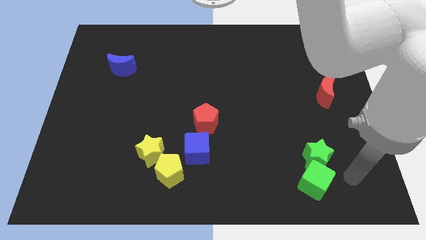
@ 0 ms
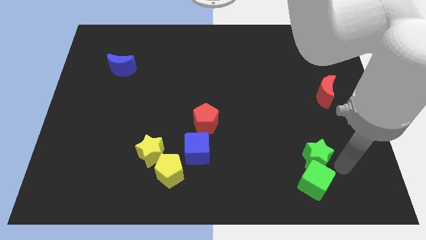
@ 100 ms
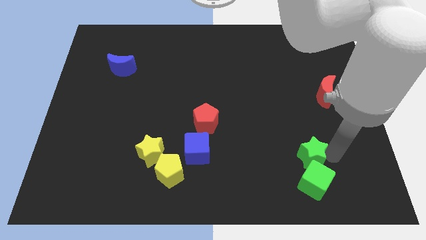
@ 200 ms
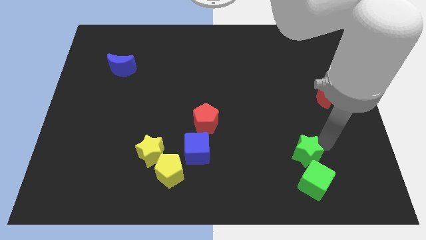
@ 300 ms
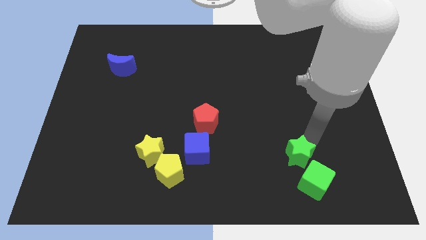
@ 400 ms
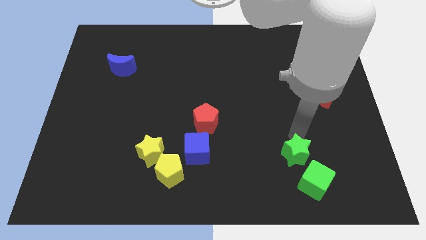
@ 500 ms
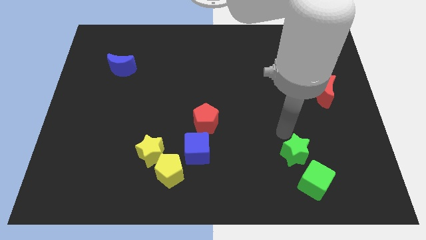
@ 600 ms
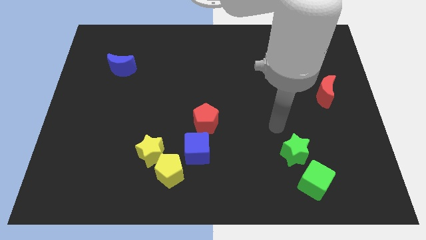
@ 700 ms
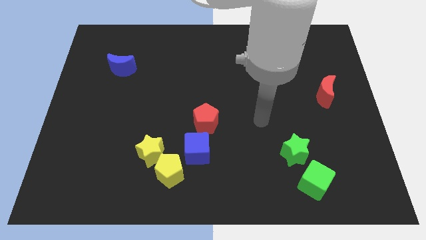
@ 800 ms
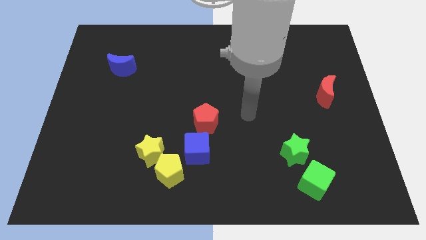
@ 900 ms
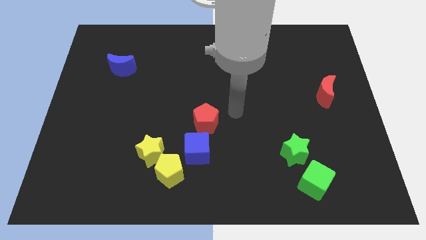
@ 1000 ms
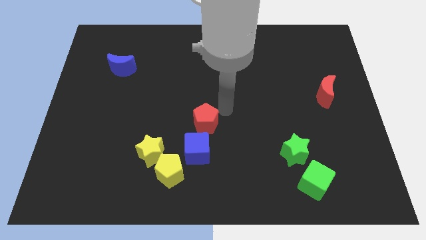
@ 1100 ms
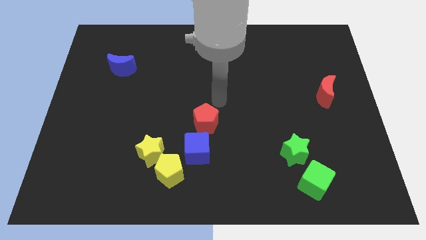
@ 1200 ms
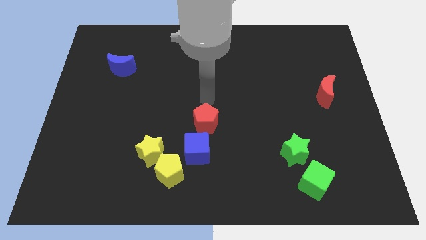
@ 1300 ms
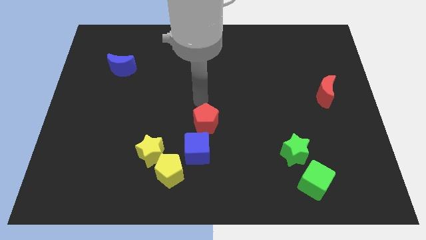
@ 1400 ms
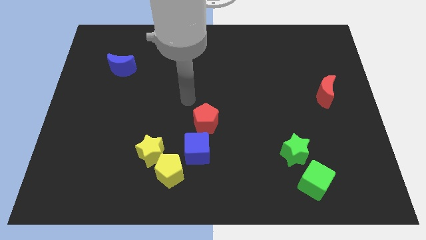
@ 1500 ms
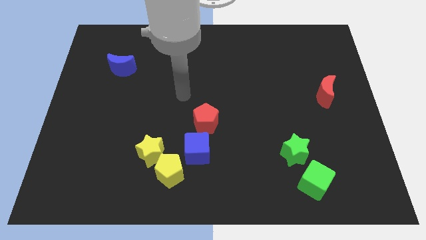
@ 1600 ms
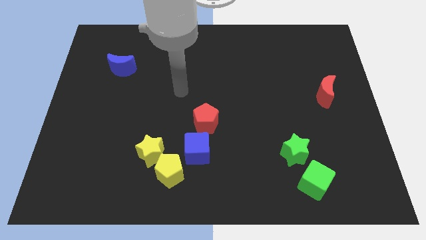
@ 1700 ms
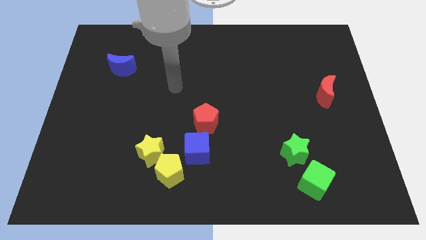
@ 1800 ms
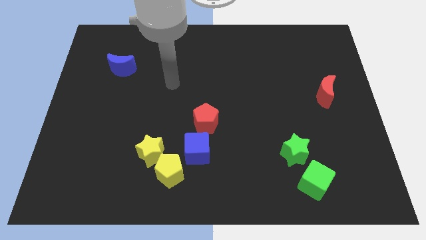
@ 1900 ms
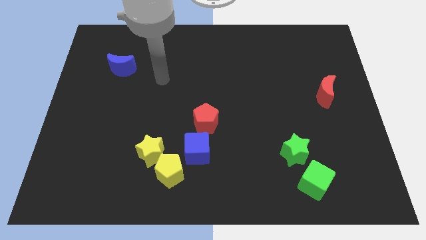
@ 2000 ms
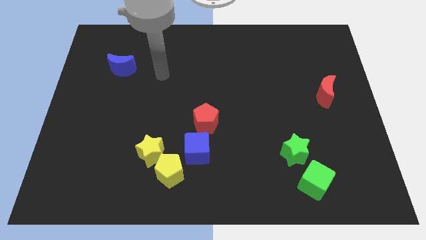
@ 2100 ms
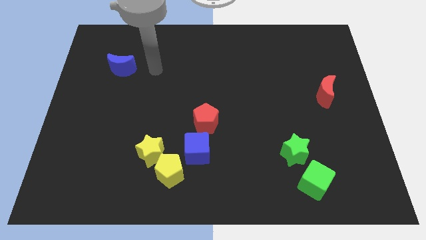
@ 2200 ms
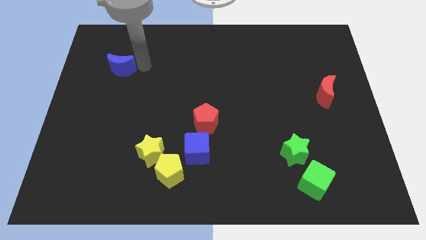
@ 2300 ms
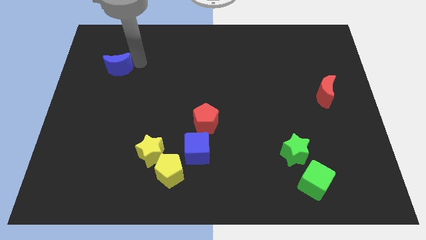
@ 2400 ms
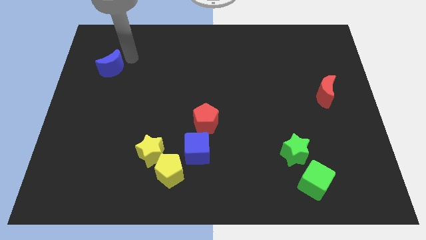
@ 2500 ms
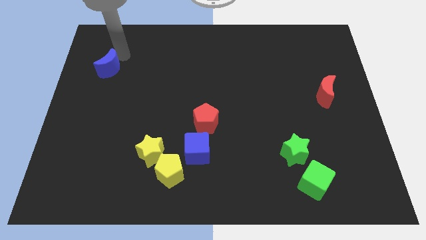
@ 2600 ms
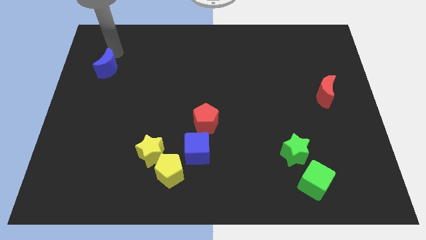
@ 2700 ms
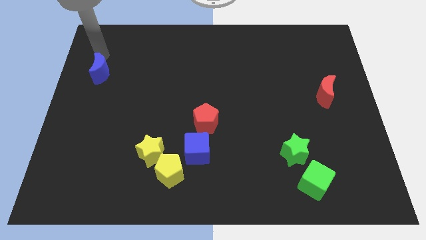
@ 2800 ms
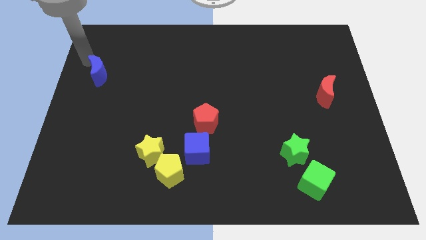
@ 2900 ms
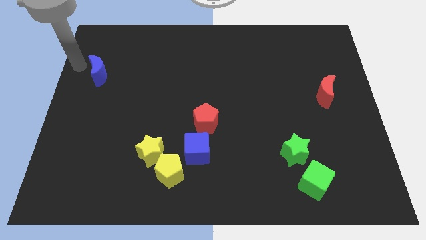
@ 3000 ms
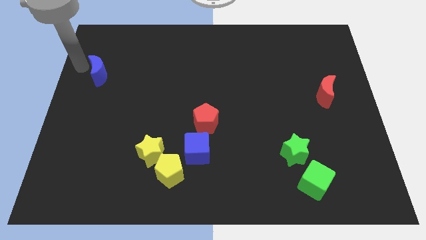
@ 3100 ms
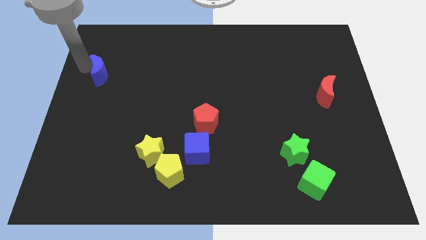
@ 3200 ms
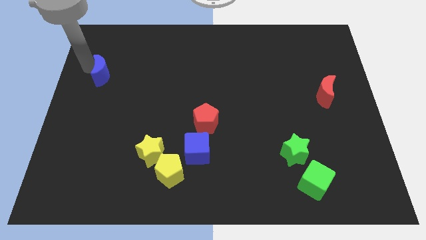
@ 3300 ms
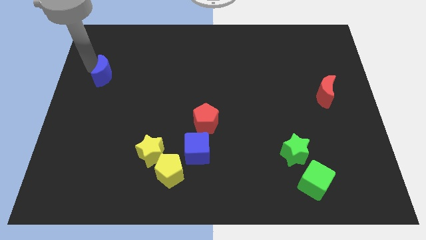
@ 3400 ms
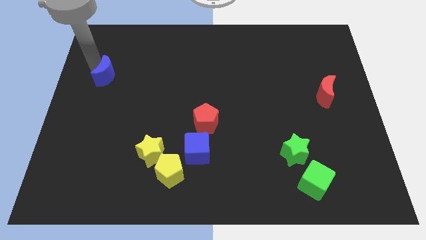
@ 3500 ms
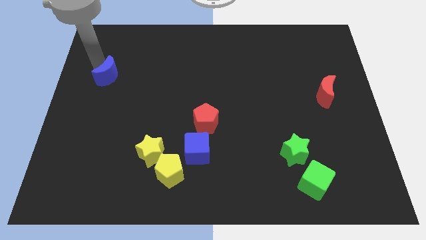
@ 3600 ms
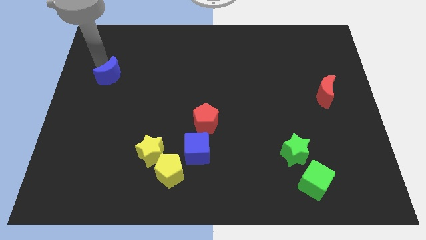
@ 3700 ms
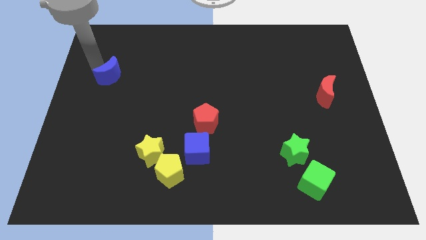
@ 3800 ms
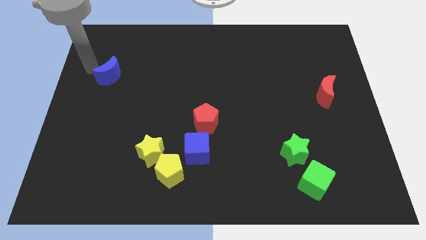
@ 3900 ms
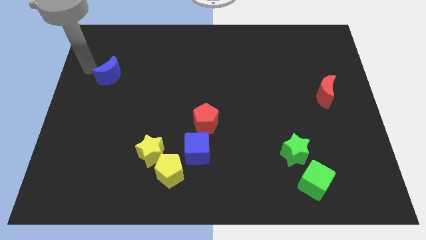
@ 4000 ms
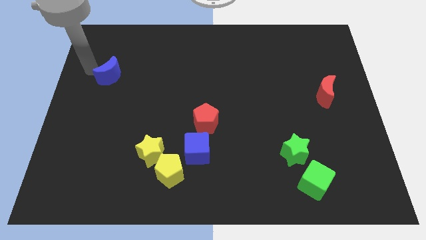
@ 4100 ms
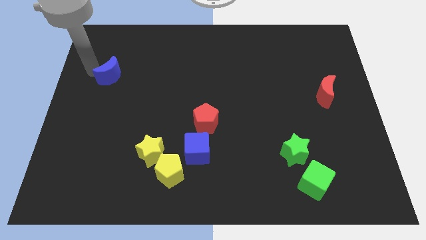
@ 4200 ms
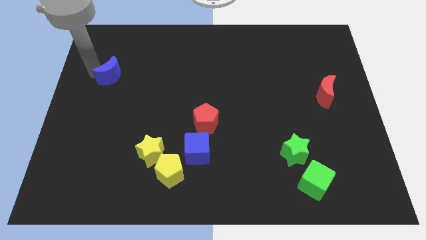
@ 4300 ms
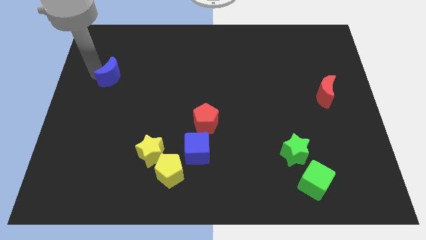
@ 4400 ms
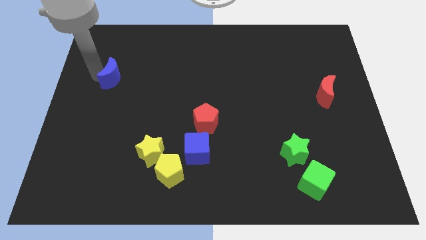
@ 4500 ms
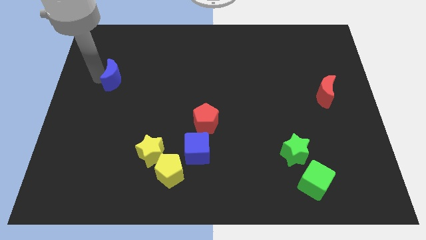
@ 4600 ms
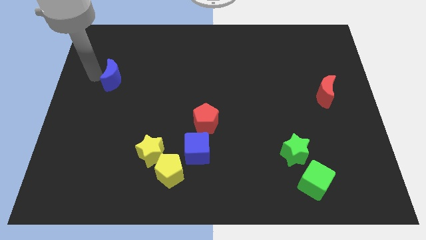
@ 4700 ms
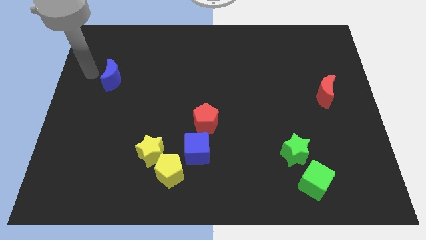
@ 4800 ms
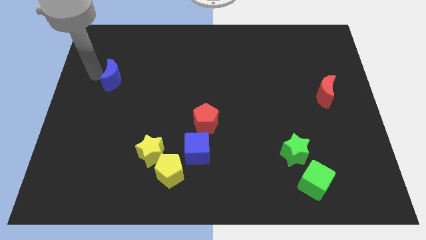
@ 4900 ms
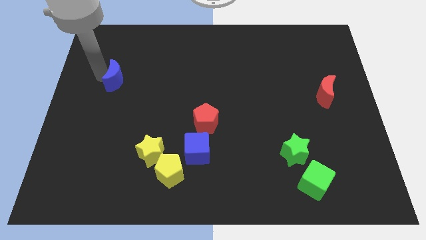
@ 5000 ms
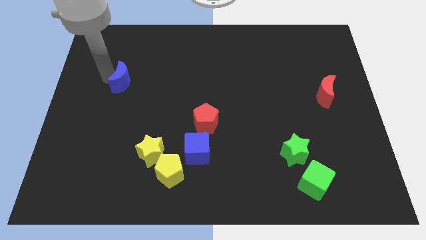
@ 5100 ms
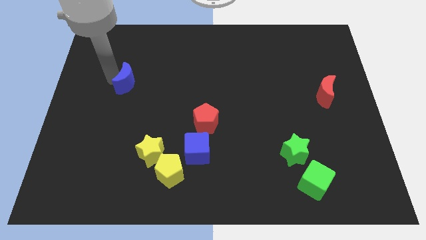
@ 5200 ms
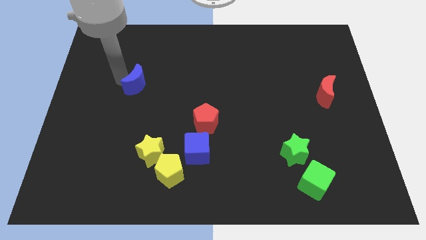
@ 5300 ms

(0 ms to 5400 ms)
slide the blue moon a little diagonally down and right

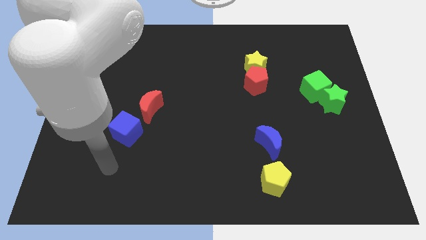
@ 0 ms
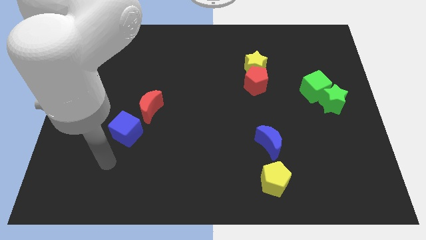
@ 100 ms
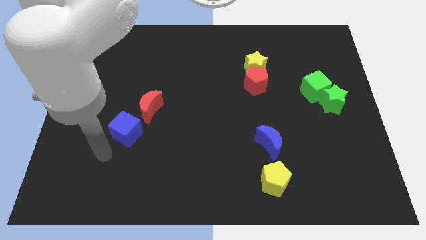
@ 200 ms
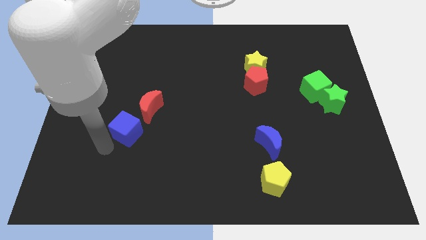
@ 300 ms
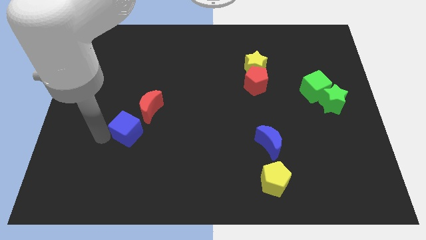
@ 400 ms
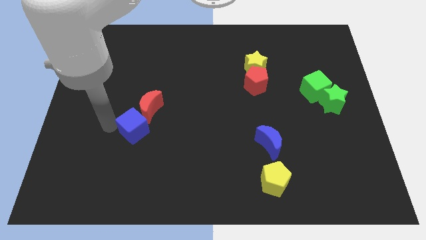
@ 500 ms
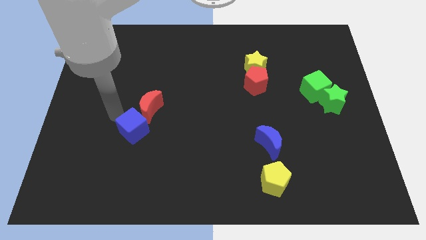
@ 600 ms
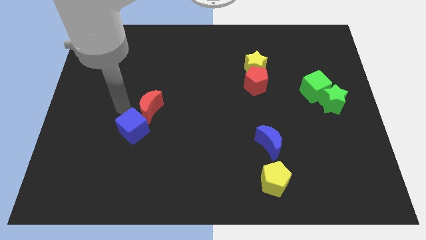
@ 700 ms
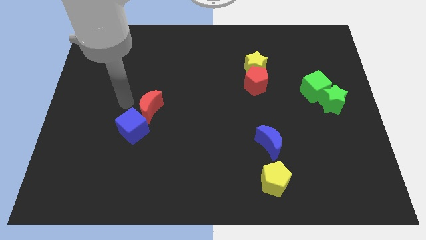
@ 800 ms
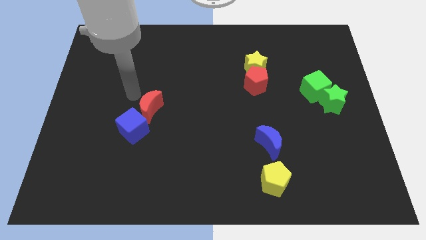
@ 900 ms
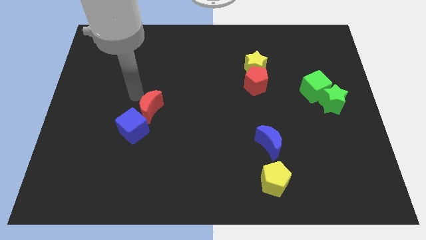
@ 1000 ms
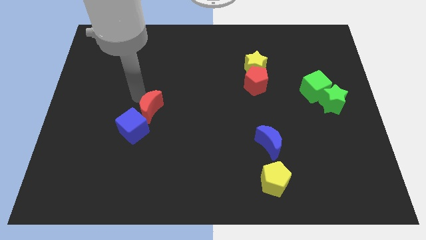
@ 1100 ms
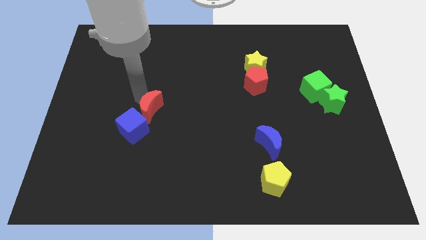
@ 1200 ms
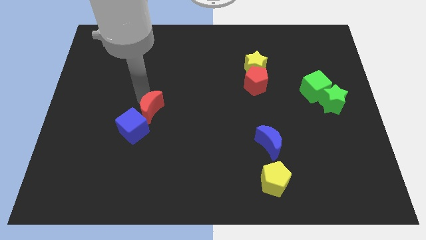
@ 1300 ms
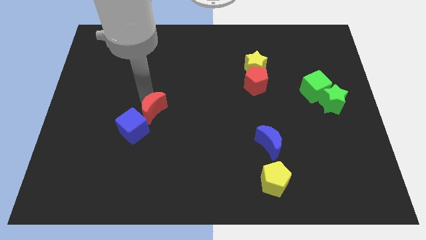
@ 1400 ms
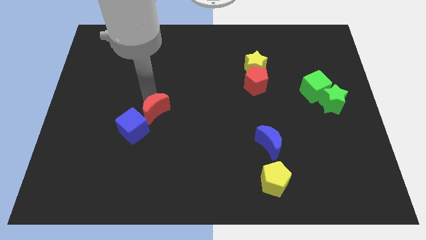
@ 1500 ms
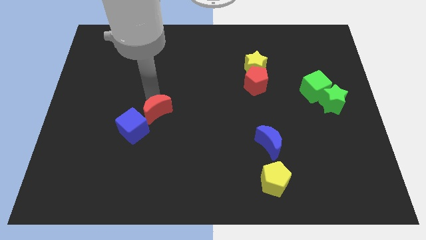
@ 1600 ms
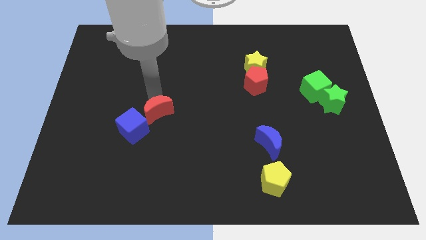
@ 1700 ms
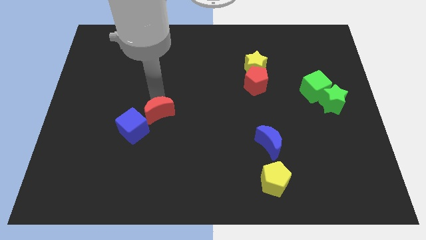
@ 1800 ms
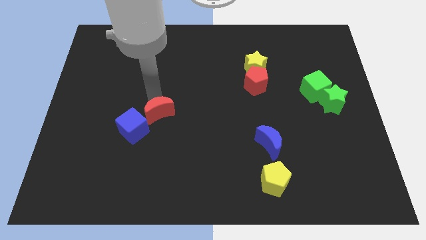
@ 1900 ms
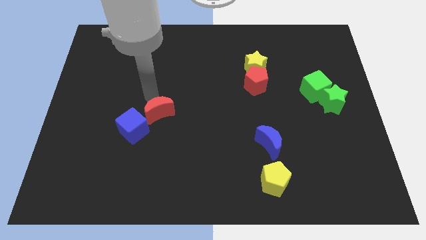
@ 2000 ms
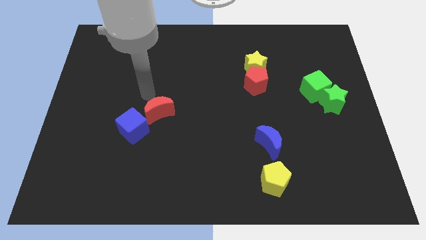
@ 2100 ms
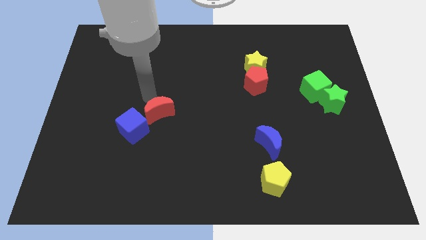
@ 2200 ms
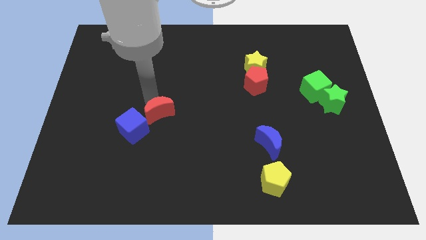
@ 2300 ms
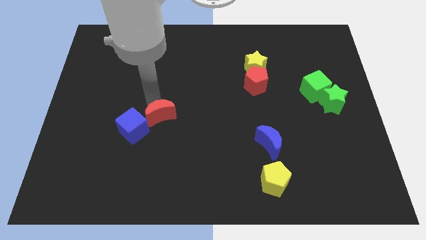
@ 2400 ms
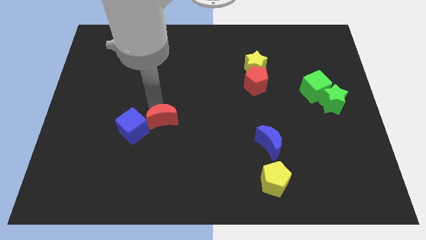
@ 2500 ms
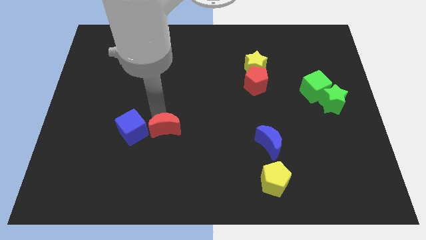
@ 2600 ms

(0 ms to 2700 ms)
slightly move the red moon down and then to the right

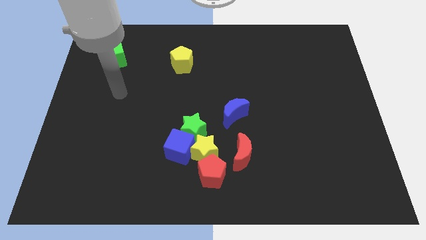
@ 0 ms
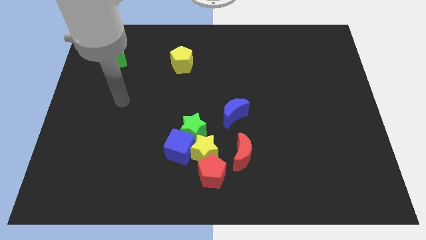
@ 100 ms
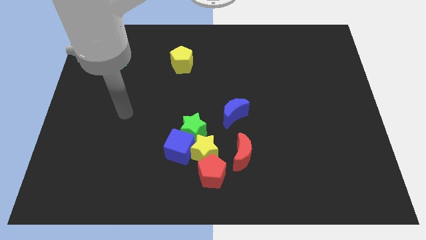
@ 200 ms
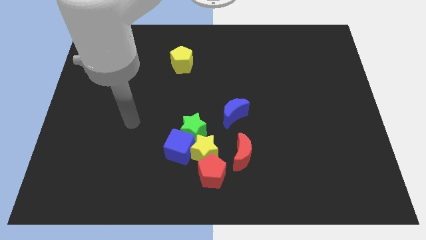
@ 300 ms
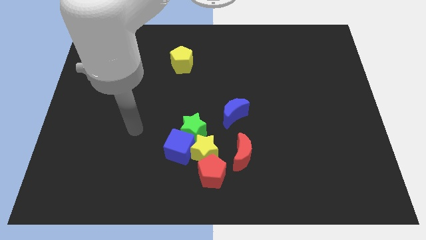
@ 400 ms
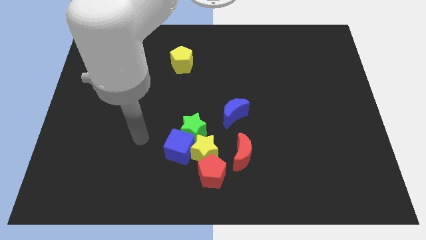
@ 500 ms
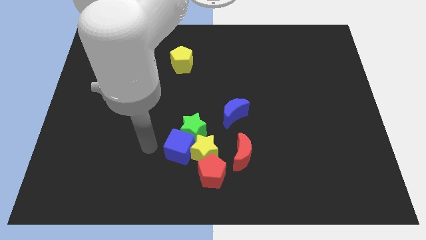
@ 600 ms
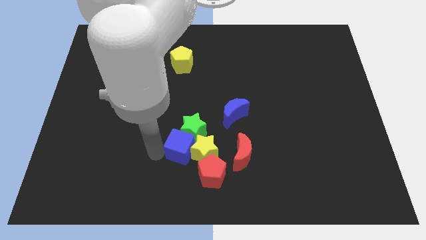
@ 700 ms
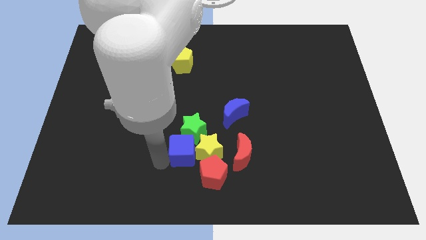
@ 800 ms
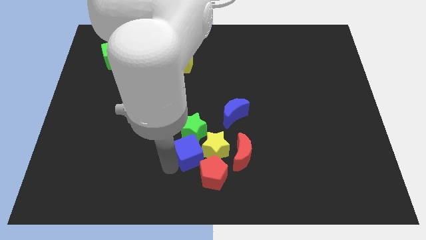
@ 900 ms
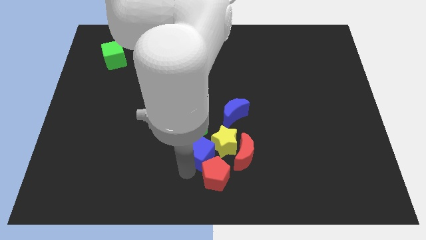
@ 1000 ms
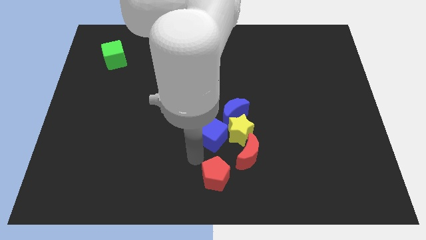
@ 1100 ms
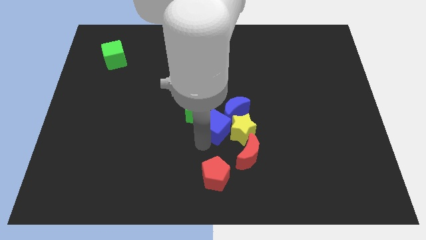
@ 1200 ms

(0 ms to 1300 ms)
slightly push the yellow star to the right
